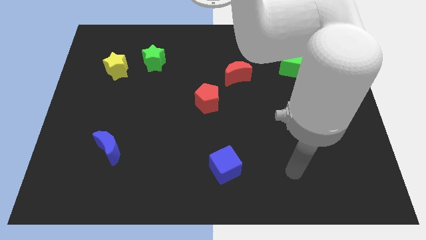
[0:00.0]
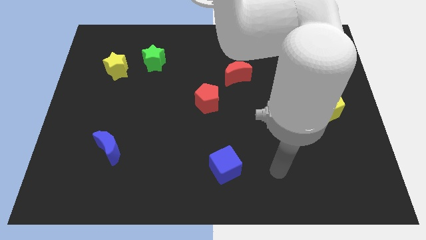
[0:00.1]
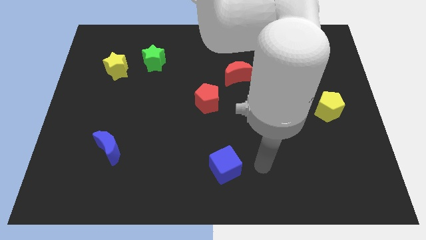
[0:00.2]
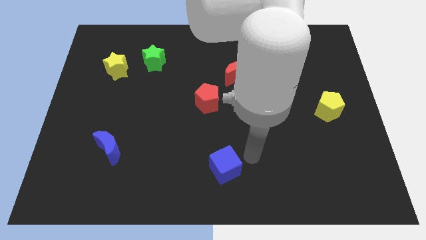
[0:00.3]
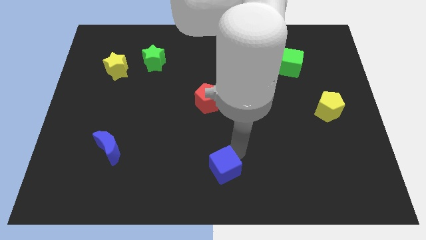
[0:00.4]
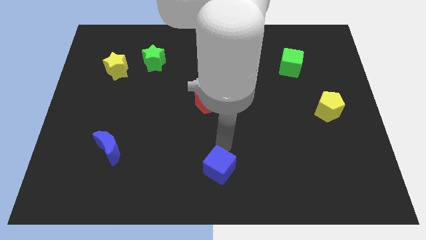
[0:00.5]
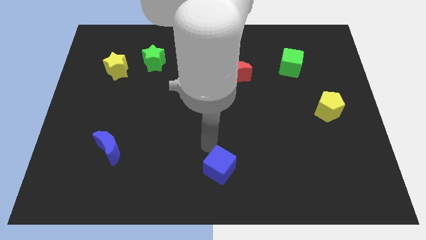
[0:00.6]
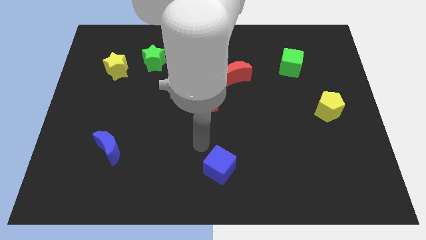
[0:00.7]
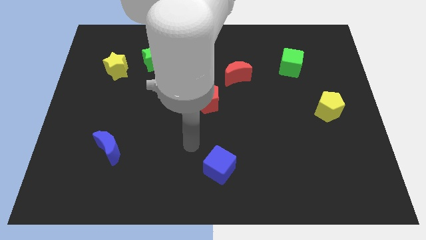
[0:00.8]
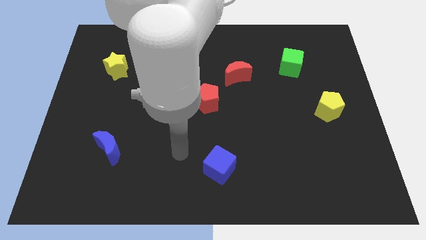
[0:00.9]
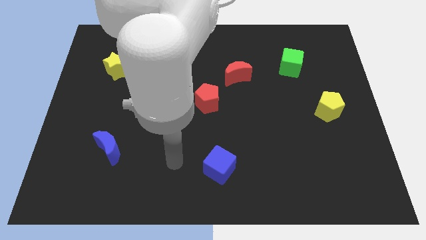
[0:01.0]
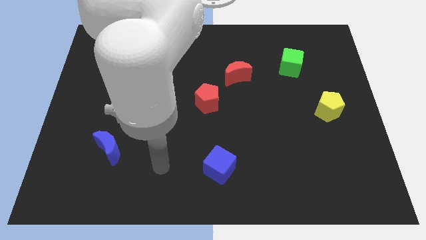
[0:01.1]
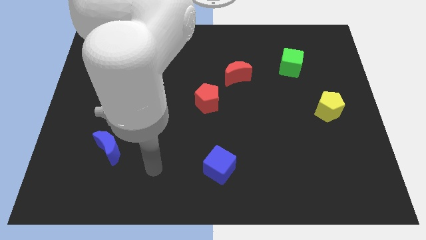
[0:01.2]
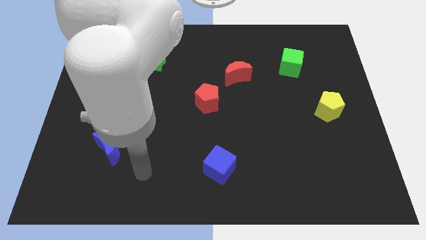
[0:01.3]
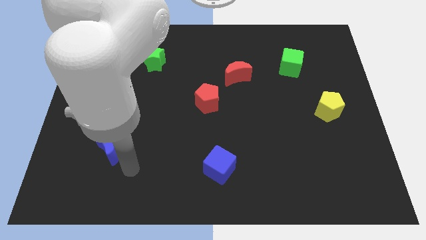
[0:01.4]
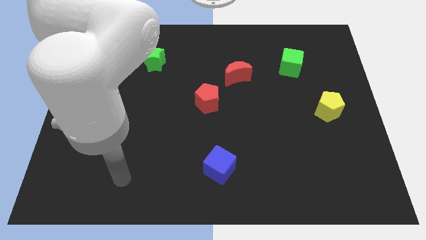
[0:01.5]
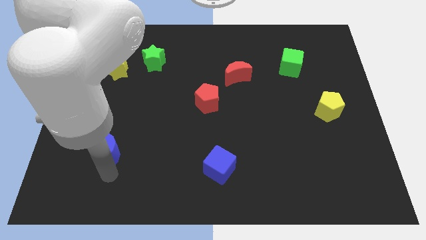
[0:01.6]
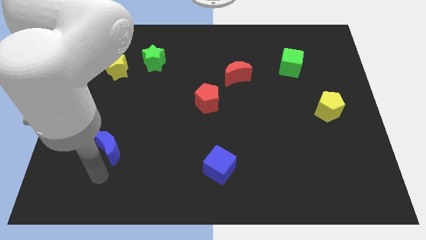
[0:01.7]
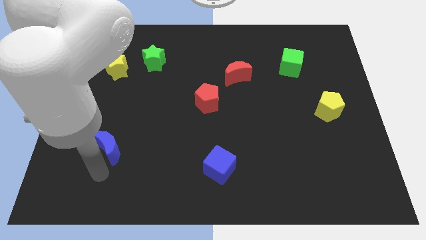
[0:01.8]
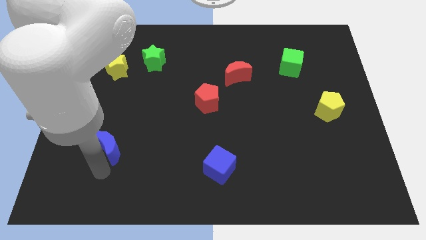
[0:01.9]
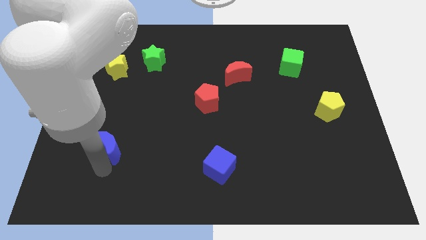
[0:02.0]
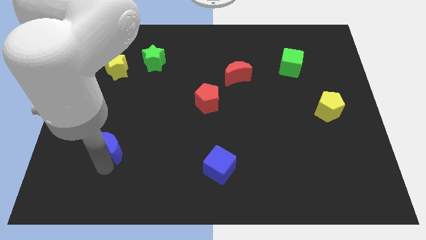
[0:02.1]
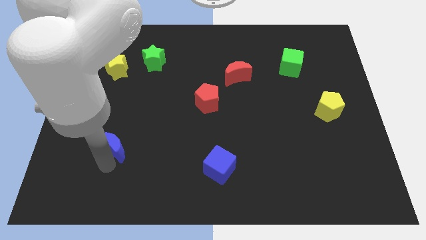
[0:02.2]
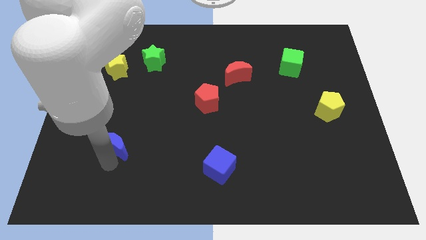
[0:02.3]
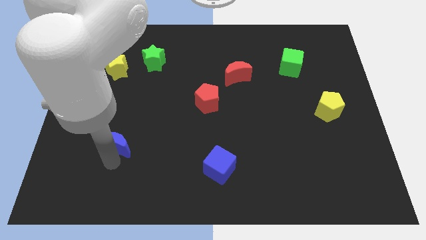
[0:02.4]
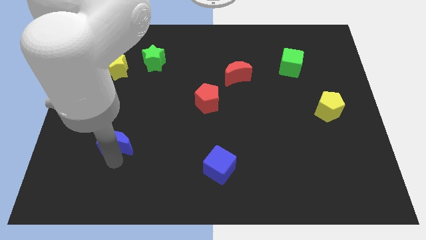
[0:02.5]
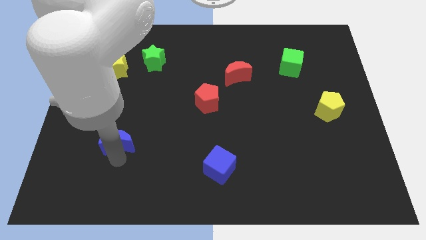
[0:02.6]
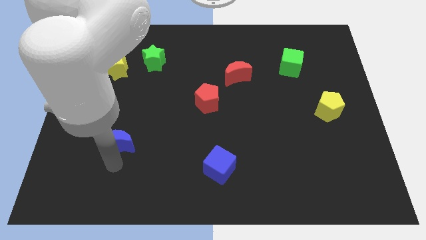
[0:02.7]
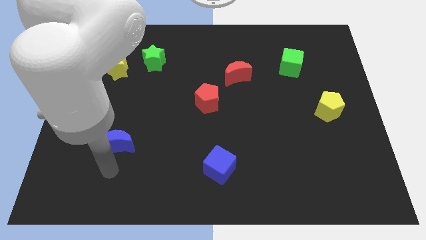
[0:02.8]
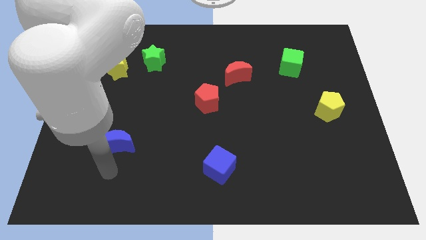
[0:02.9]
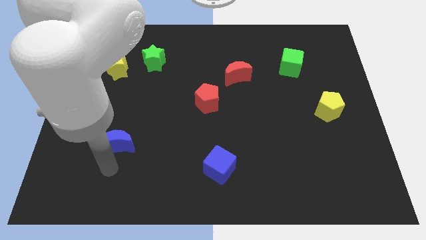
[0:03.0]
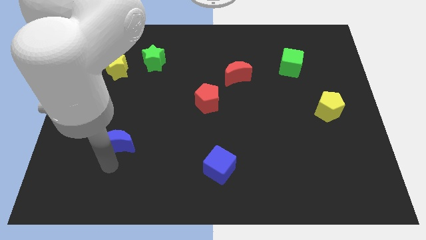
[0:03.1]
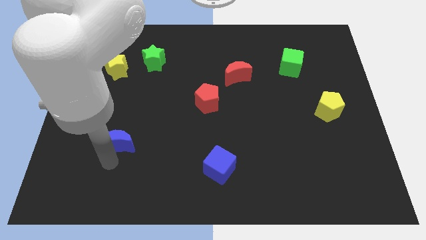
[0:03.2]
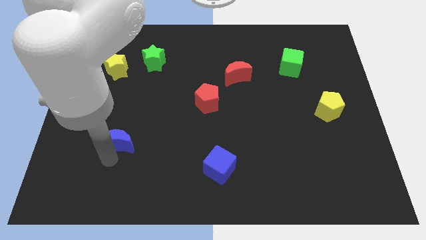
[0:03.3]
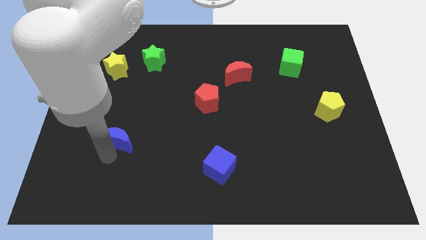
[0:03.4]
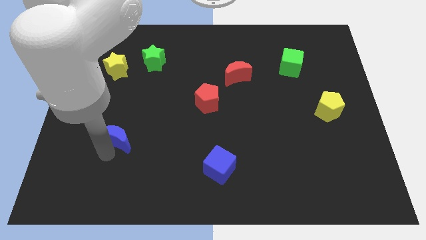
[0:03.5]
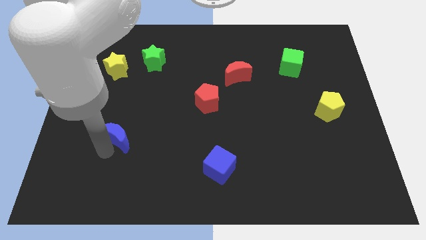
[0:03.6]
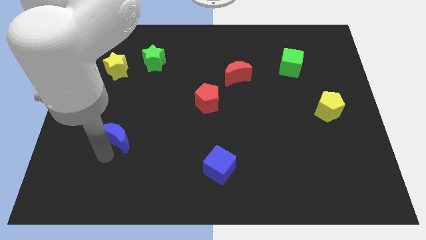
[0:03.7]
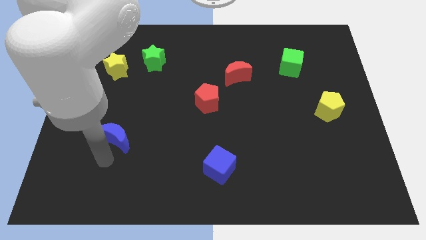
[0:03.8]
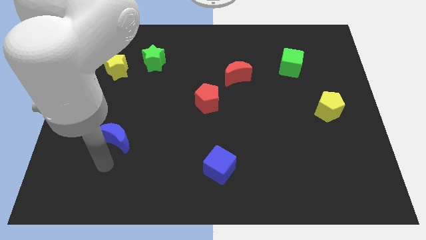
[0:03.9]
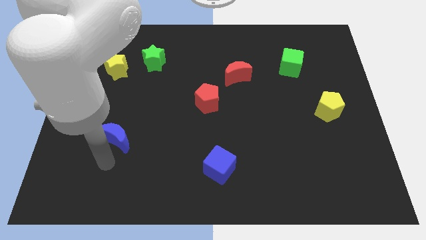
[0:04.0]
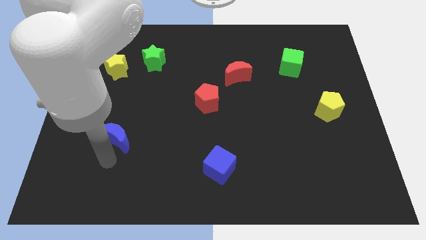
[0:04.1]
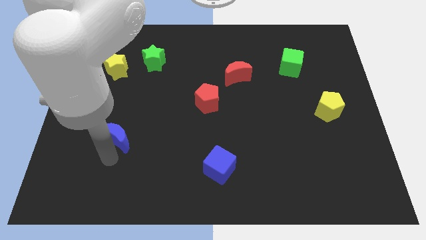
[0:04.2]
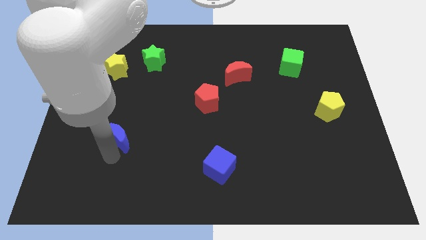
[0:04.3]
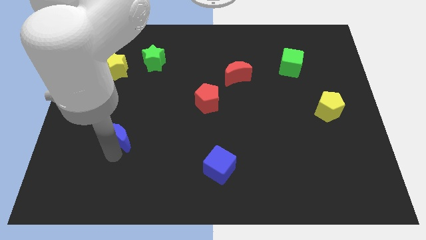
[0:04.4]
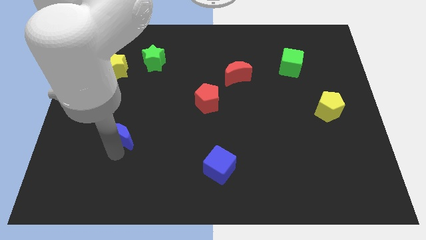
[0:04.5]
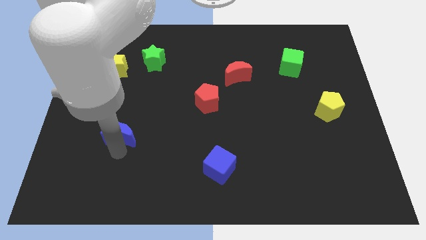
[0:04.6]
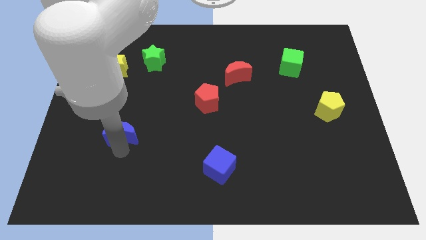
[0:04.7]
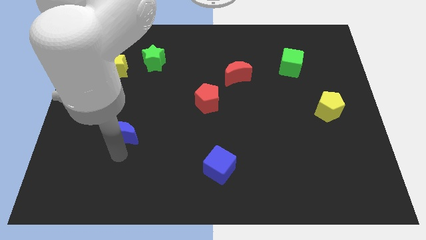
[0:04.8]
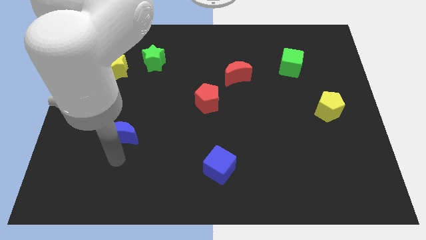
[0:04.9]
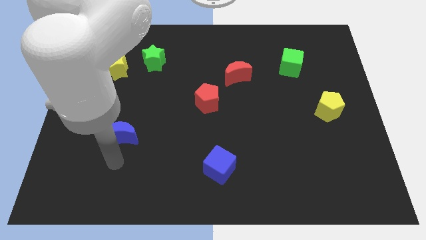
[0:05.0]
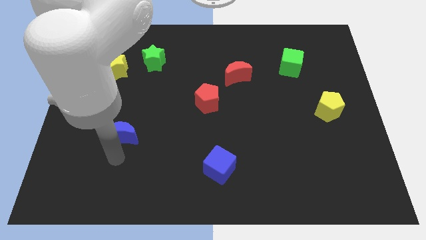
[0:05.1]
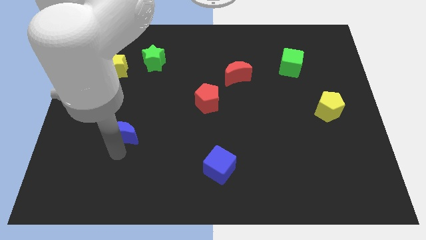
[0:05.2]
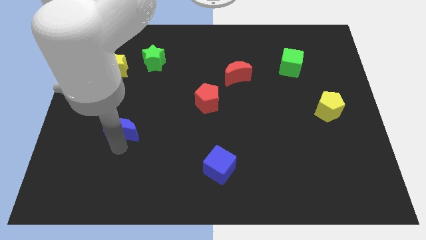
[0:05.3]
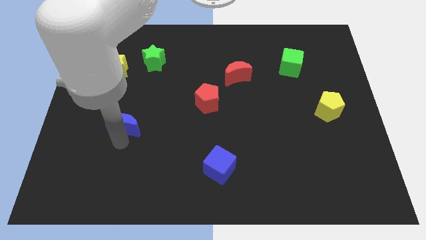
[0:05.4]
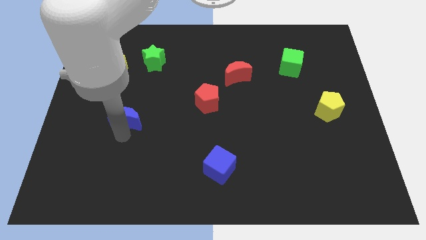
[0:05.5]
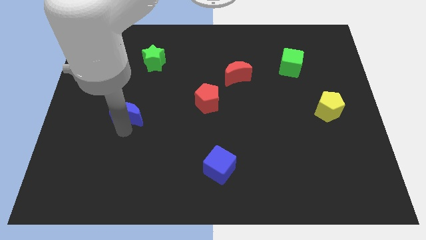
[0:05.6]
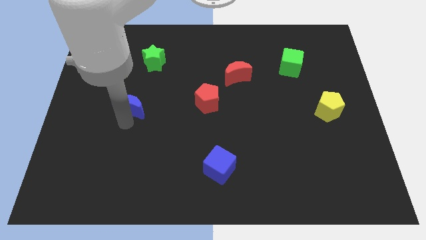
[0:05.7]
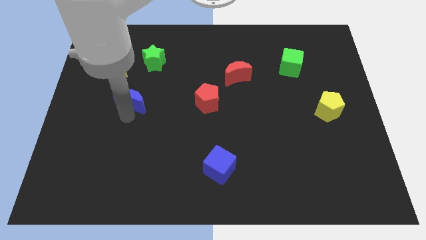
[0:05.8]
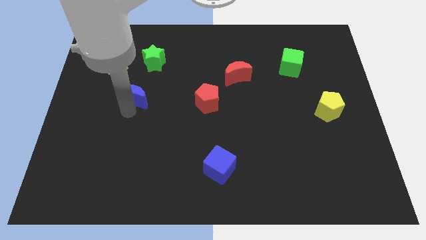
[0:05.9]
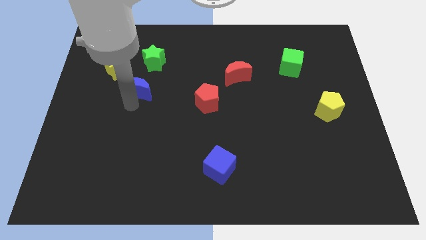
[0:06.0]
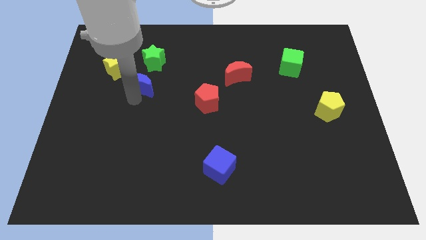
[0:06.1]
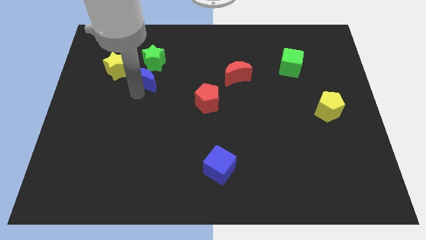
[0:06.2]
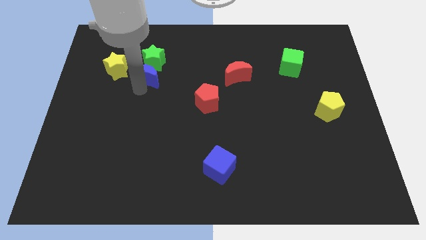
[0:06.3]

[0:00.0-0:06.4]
slide the blue moon close to the green star

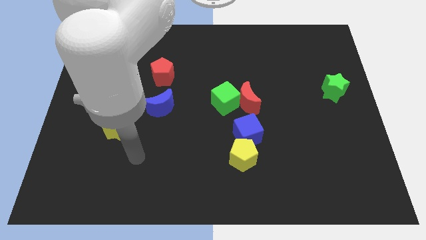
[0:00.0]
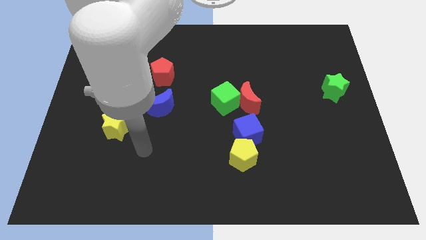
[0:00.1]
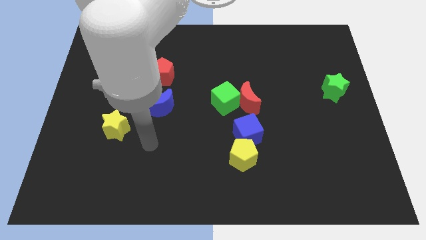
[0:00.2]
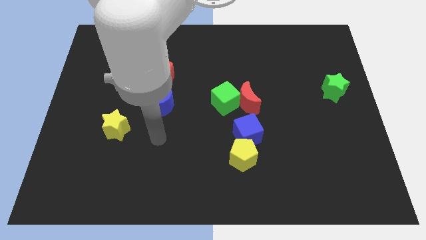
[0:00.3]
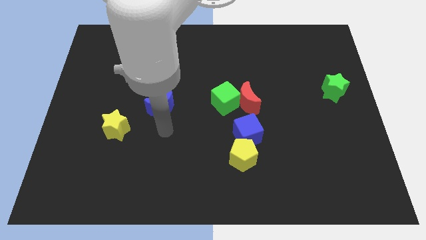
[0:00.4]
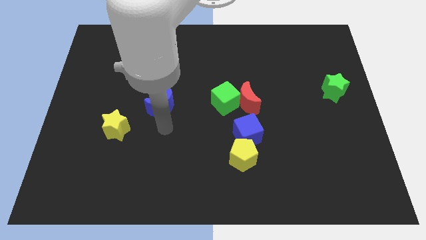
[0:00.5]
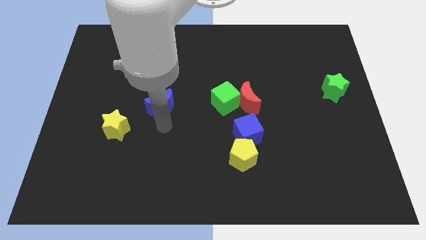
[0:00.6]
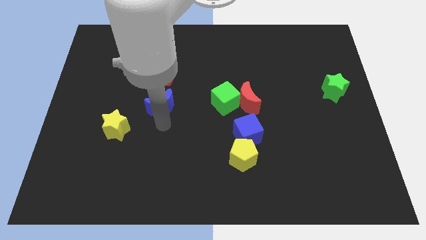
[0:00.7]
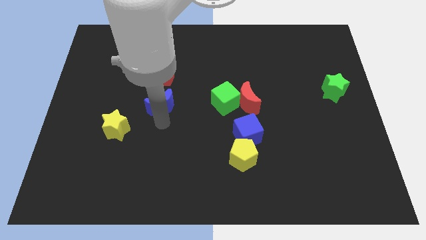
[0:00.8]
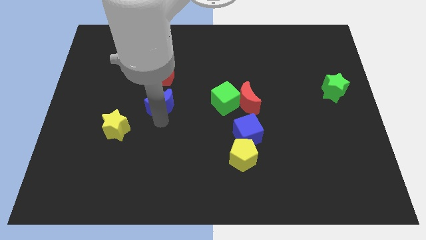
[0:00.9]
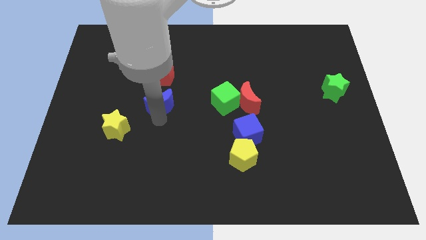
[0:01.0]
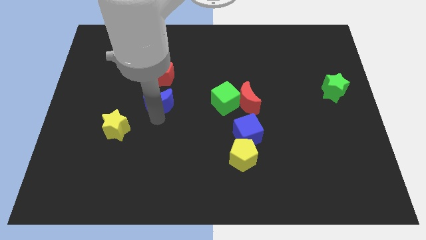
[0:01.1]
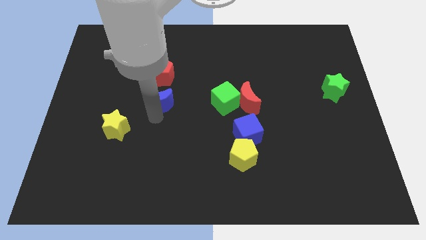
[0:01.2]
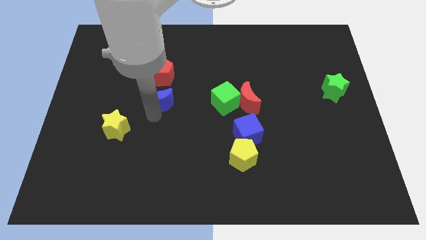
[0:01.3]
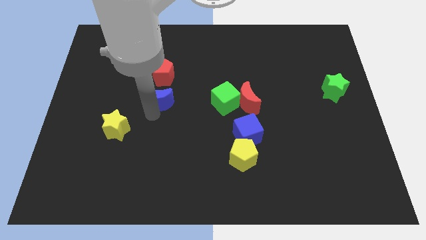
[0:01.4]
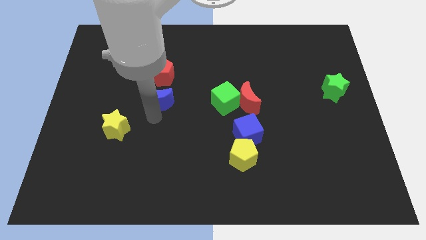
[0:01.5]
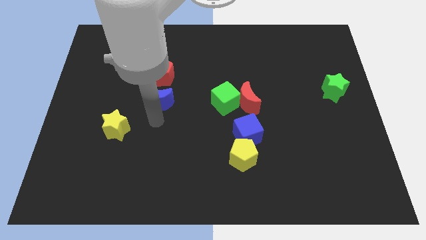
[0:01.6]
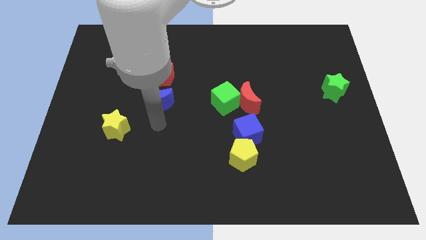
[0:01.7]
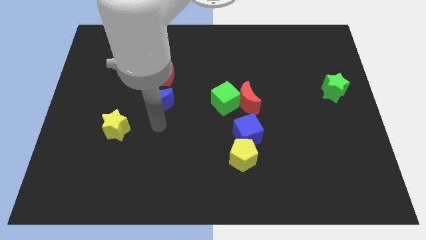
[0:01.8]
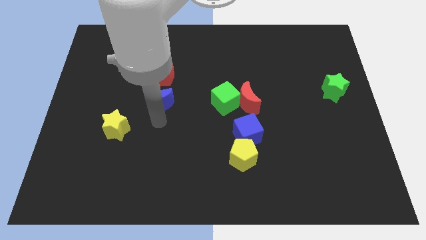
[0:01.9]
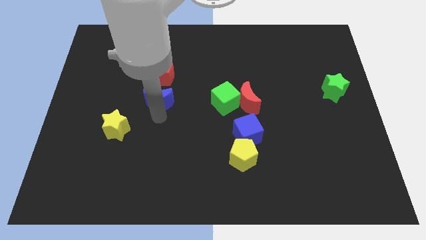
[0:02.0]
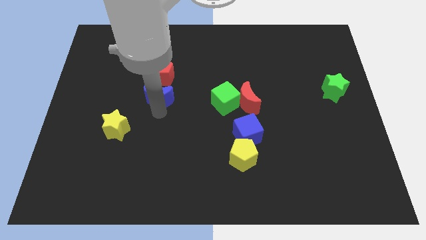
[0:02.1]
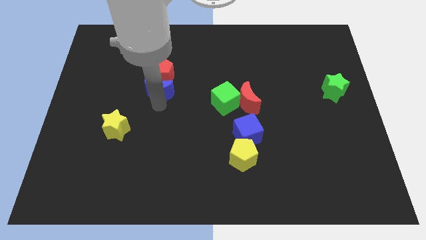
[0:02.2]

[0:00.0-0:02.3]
move the blue moon close to the red pentagon
